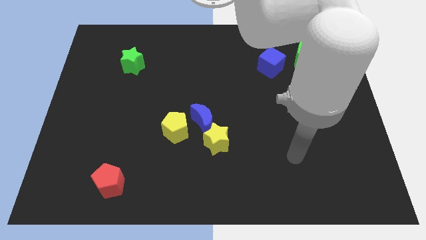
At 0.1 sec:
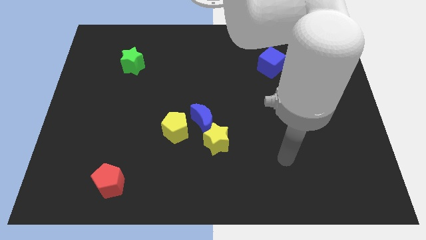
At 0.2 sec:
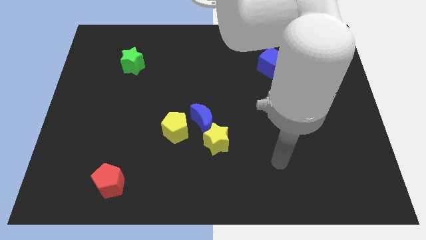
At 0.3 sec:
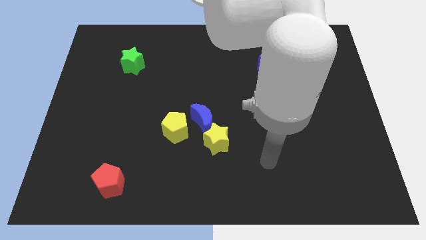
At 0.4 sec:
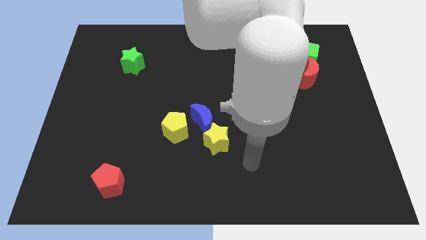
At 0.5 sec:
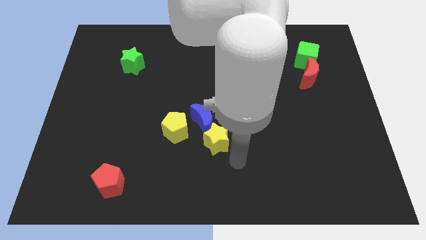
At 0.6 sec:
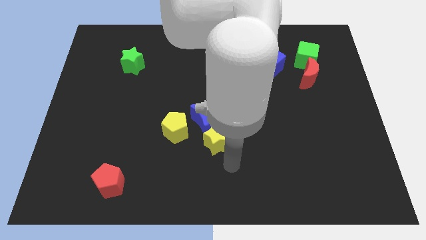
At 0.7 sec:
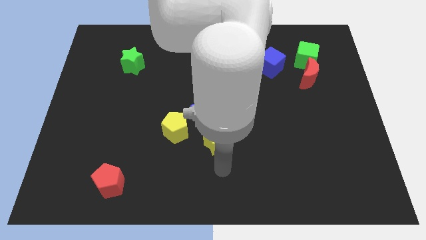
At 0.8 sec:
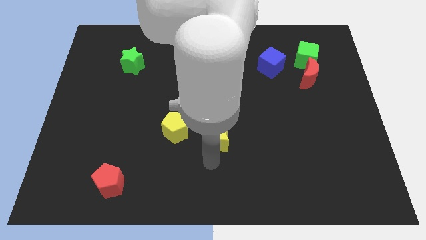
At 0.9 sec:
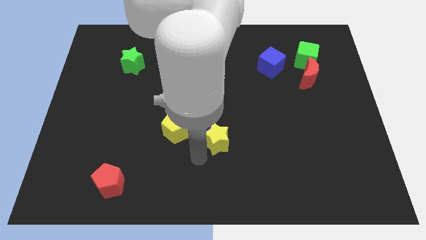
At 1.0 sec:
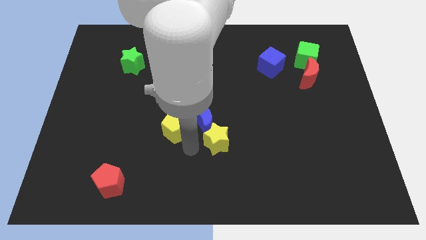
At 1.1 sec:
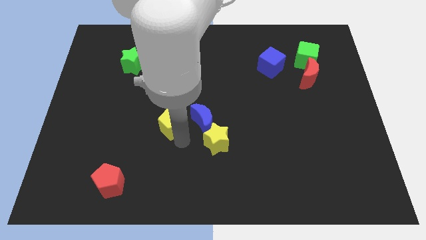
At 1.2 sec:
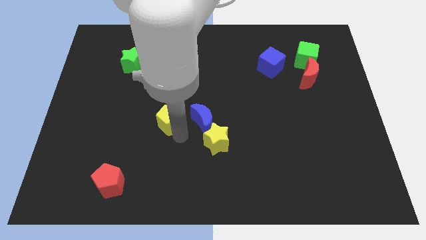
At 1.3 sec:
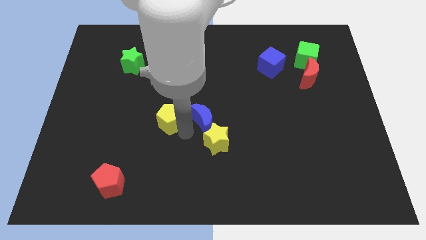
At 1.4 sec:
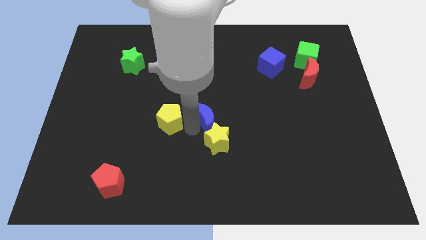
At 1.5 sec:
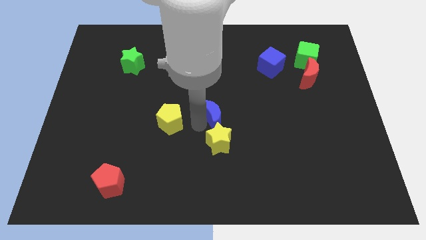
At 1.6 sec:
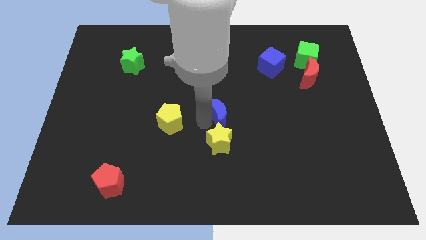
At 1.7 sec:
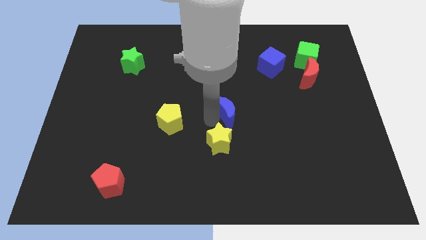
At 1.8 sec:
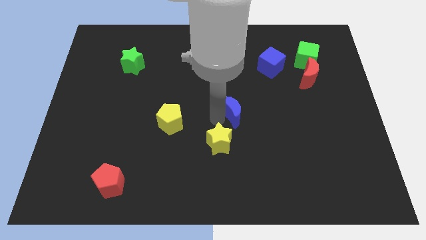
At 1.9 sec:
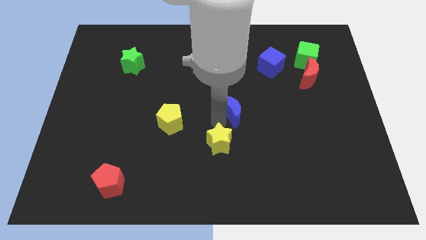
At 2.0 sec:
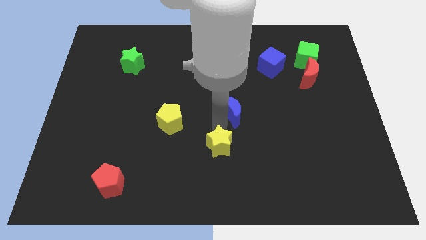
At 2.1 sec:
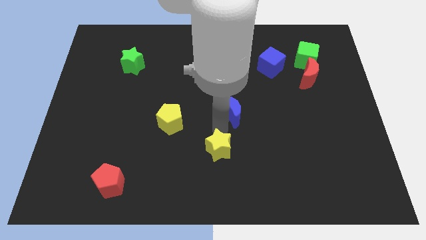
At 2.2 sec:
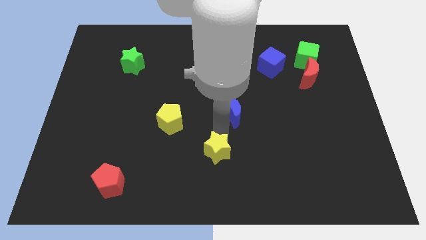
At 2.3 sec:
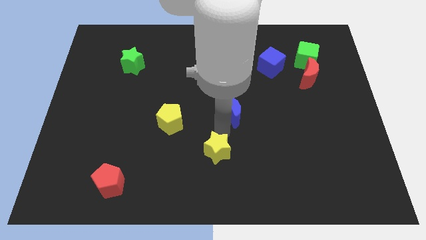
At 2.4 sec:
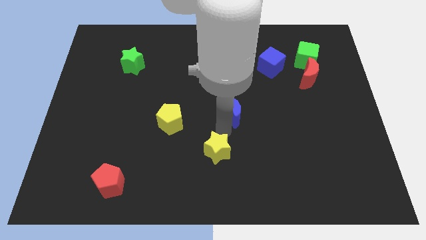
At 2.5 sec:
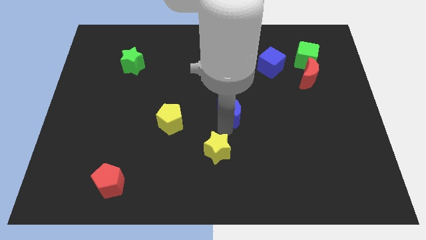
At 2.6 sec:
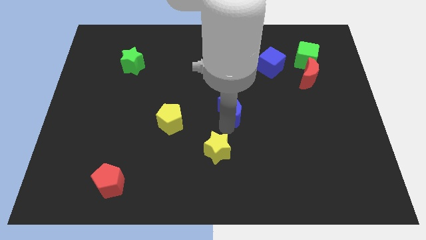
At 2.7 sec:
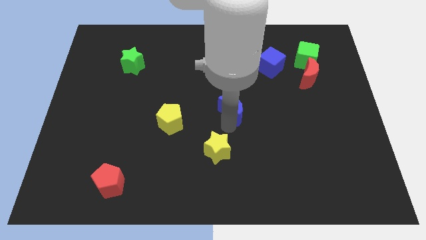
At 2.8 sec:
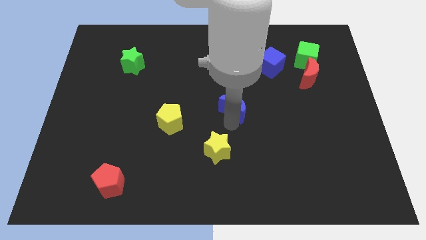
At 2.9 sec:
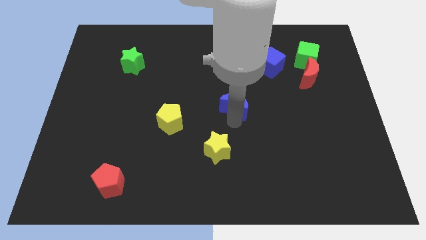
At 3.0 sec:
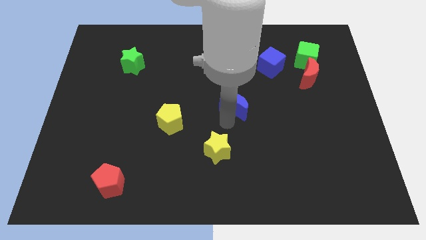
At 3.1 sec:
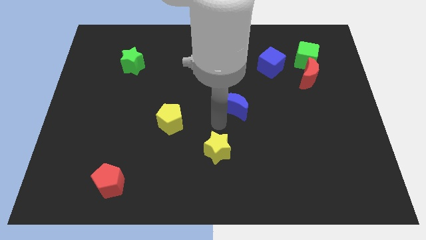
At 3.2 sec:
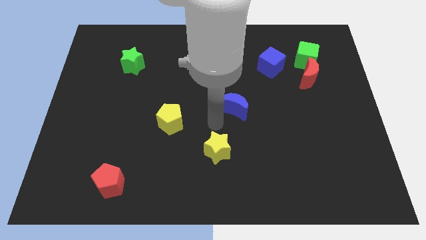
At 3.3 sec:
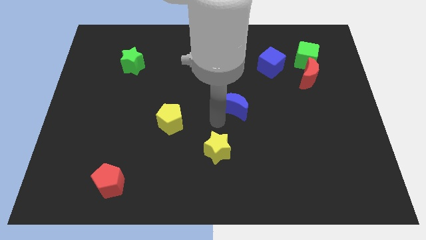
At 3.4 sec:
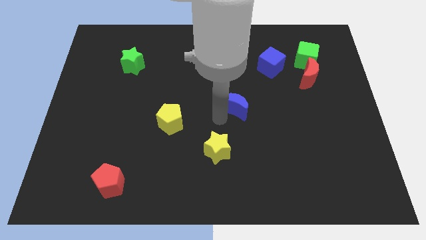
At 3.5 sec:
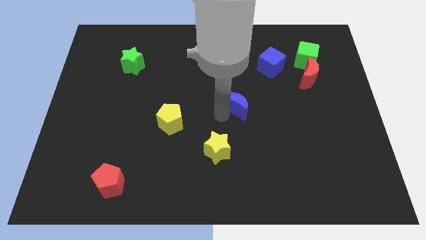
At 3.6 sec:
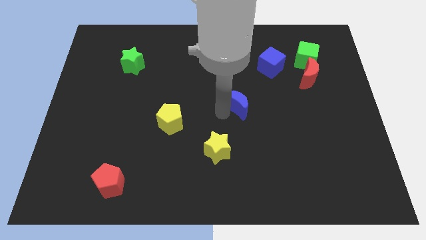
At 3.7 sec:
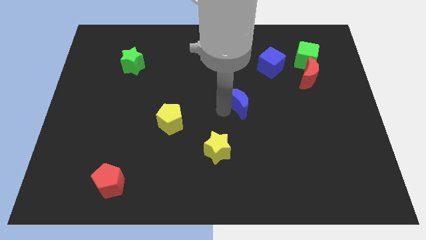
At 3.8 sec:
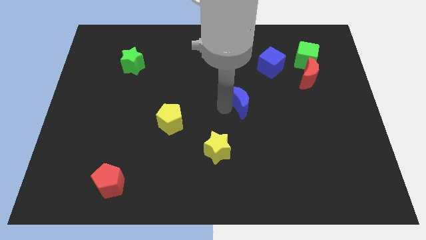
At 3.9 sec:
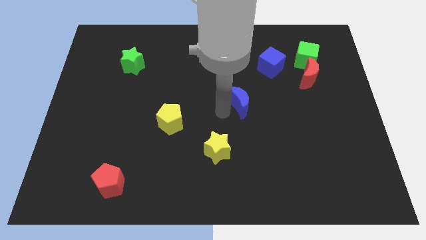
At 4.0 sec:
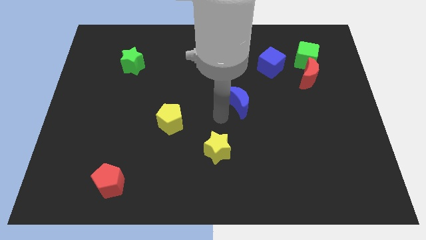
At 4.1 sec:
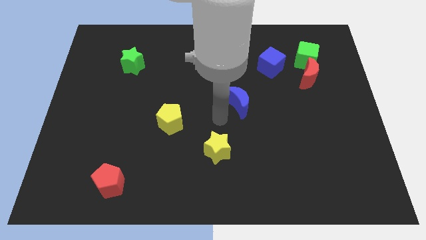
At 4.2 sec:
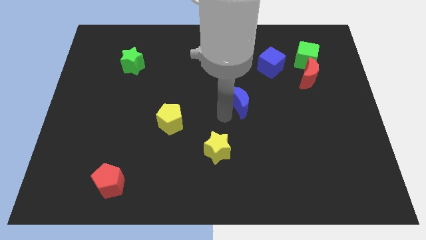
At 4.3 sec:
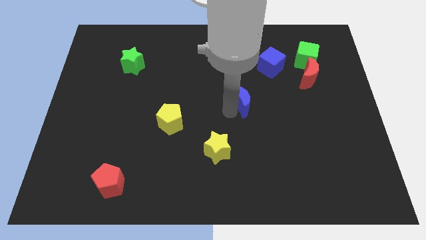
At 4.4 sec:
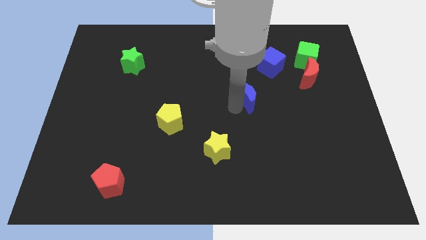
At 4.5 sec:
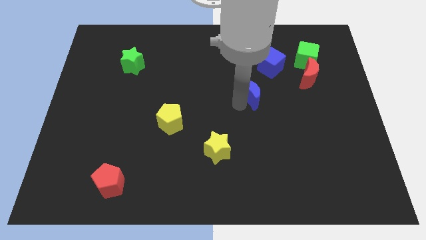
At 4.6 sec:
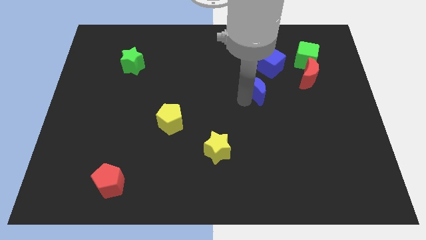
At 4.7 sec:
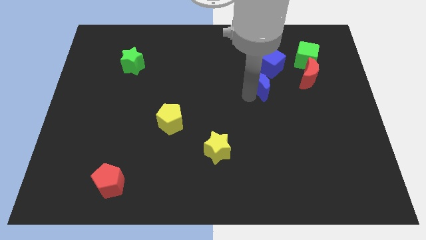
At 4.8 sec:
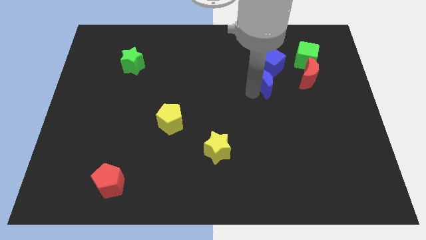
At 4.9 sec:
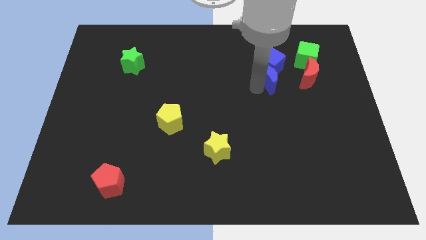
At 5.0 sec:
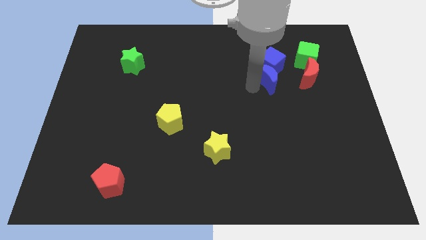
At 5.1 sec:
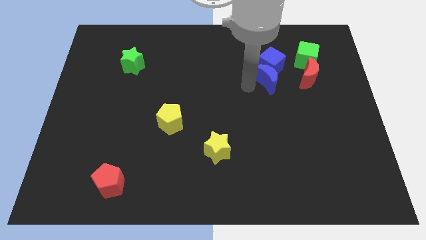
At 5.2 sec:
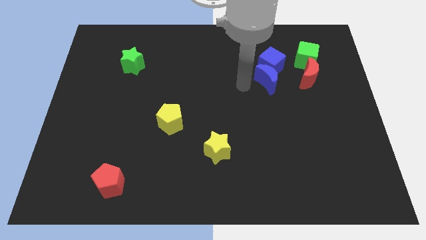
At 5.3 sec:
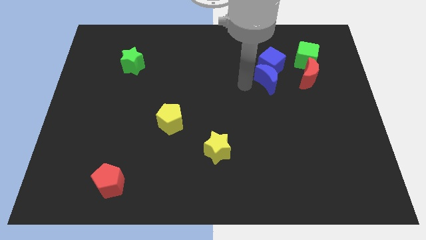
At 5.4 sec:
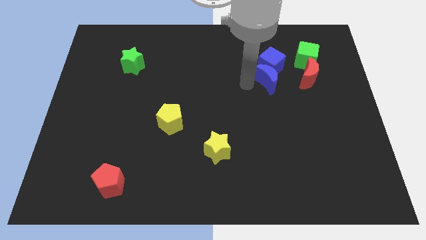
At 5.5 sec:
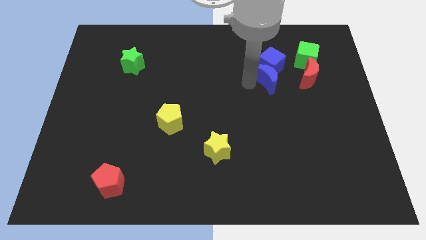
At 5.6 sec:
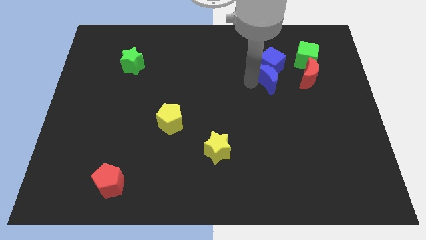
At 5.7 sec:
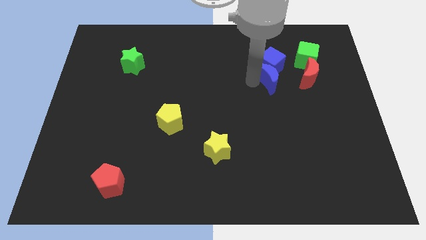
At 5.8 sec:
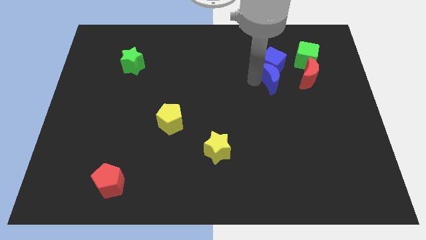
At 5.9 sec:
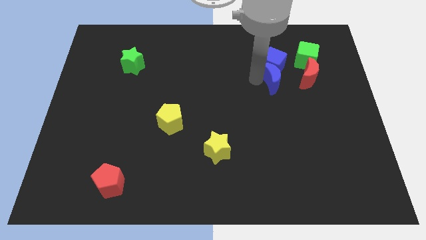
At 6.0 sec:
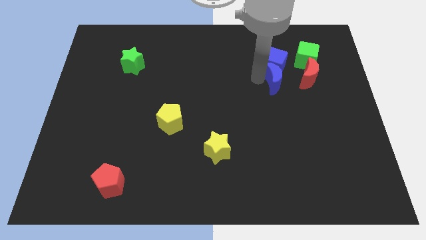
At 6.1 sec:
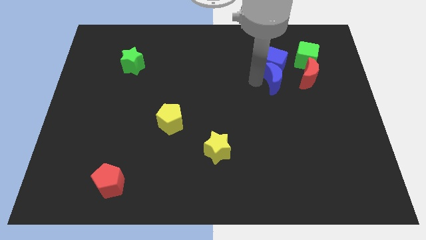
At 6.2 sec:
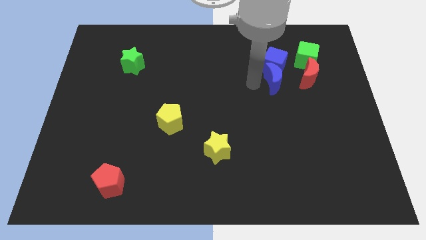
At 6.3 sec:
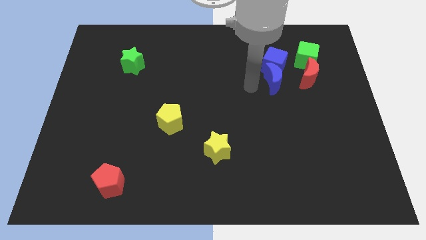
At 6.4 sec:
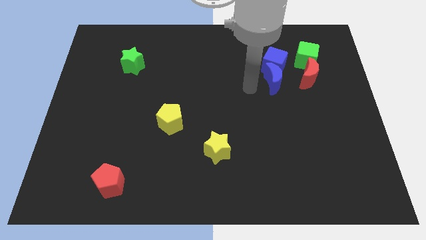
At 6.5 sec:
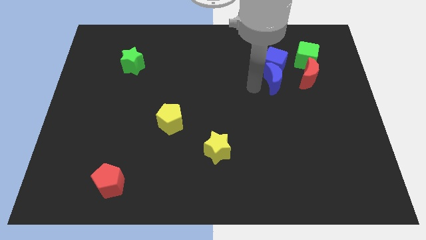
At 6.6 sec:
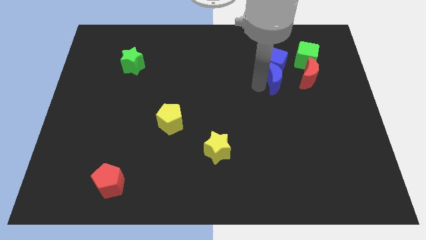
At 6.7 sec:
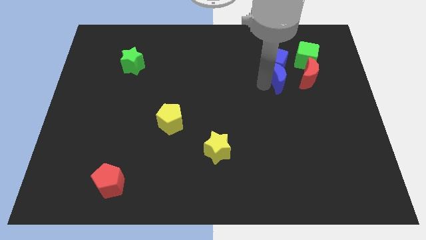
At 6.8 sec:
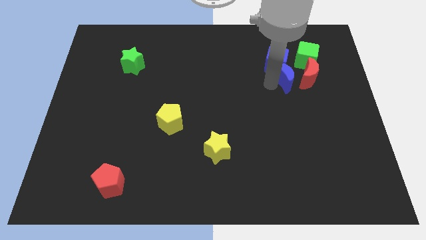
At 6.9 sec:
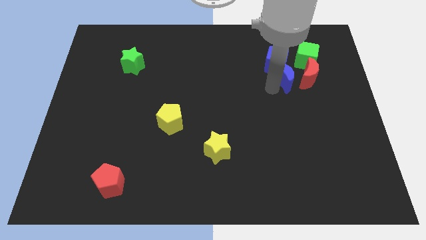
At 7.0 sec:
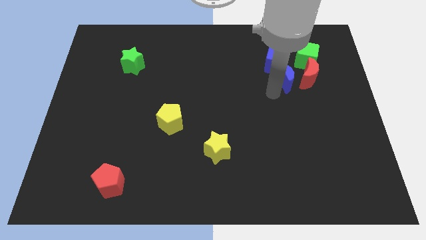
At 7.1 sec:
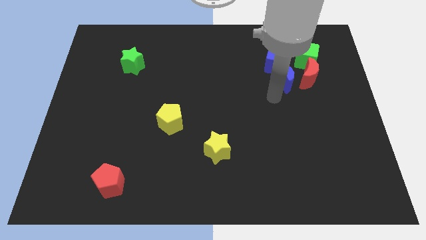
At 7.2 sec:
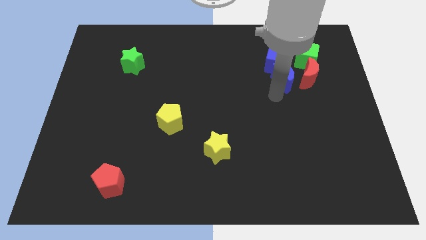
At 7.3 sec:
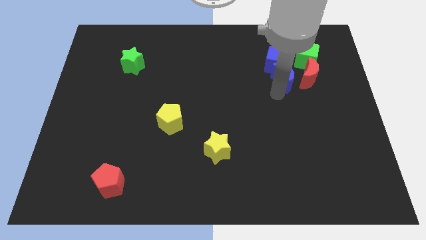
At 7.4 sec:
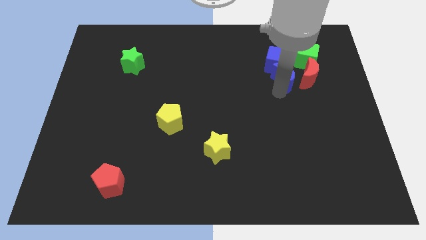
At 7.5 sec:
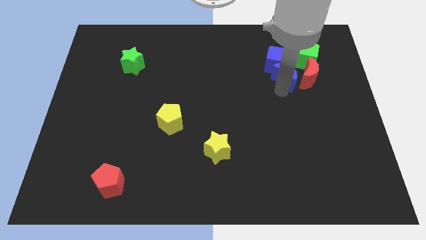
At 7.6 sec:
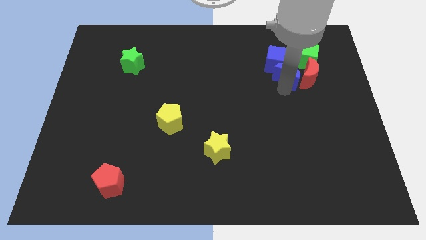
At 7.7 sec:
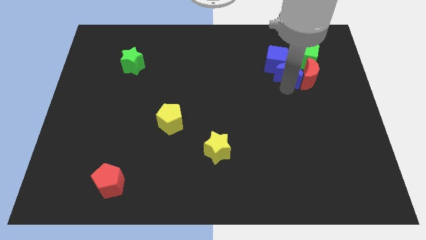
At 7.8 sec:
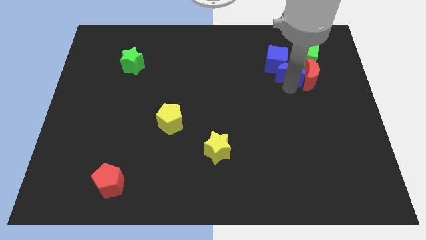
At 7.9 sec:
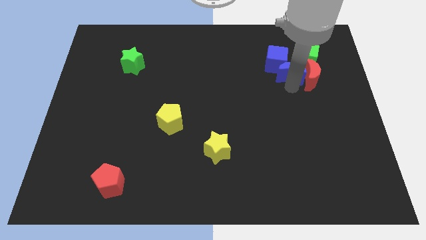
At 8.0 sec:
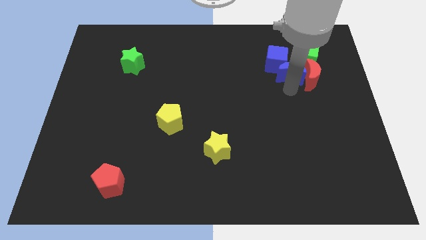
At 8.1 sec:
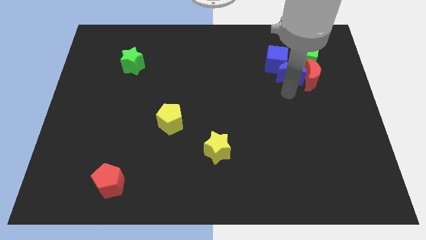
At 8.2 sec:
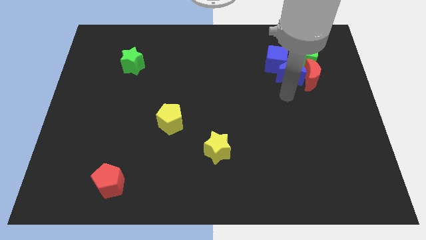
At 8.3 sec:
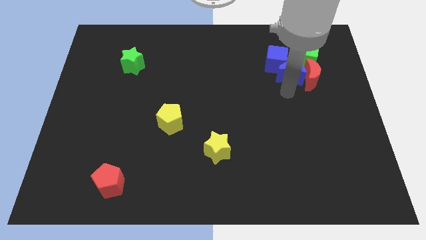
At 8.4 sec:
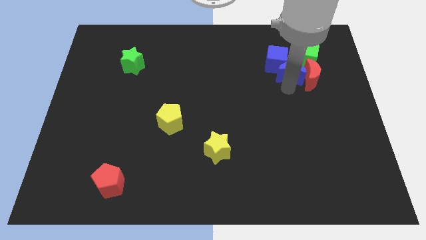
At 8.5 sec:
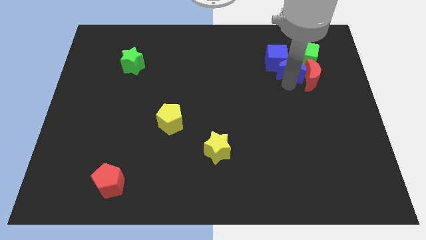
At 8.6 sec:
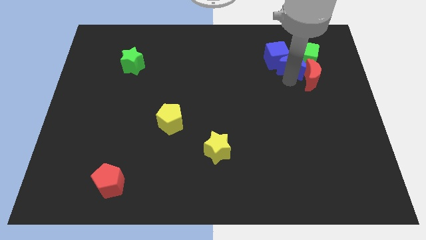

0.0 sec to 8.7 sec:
put the blue moon to the green cube
